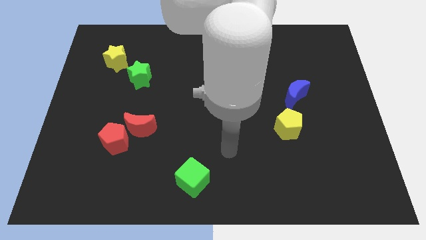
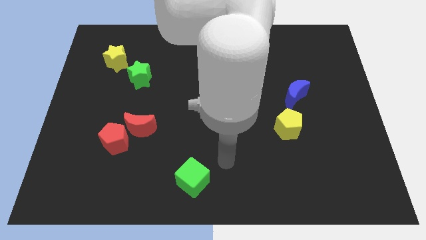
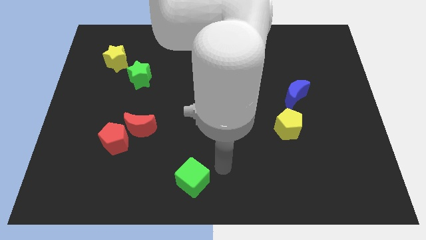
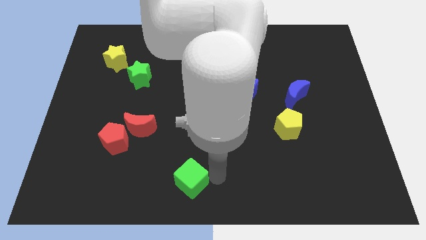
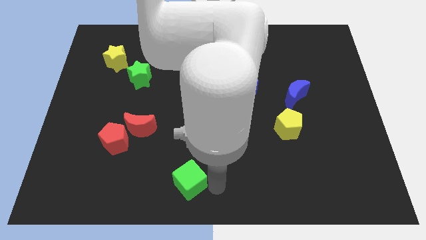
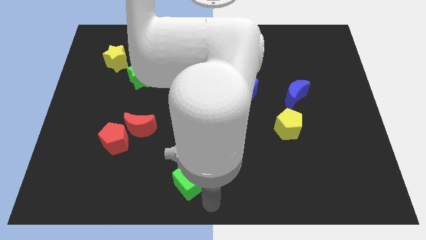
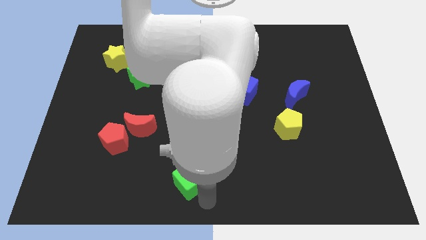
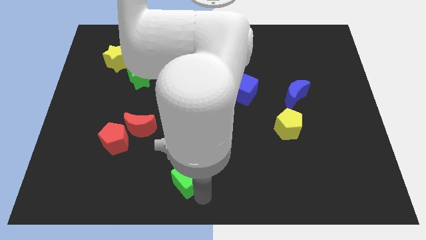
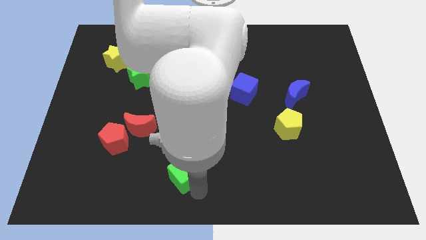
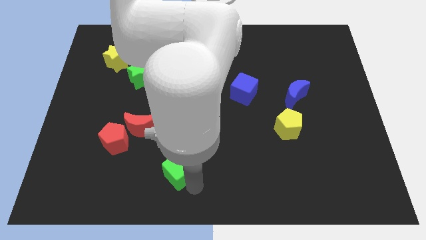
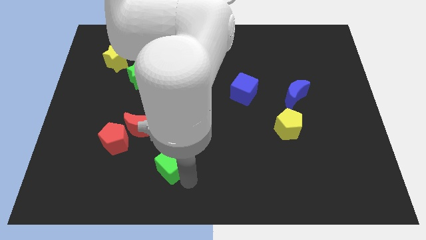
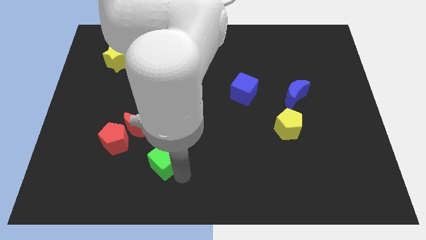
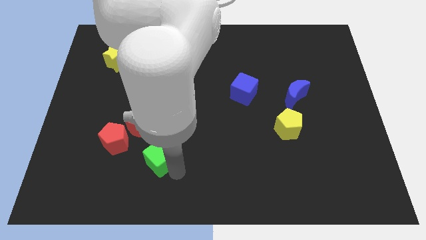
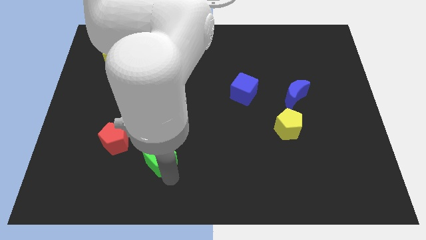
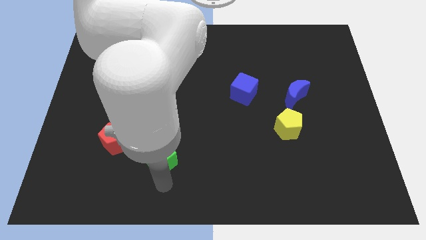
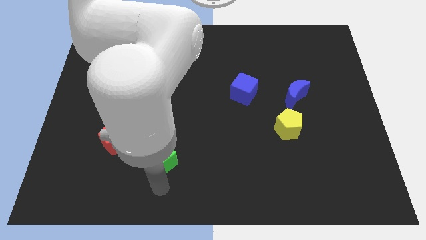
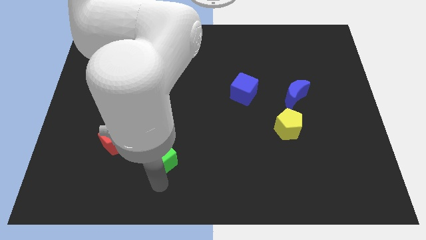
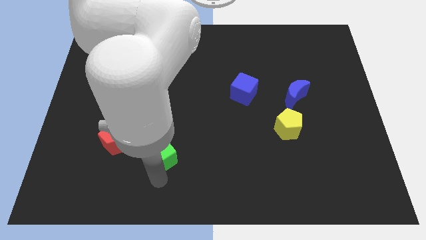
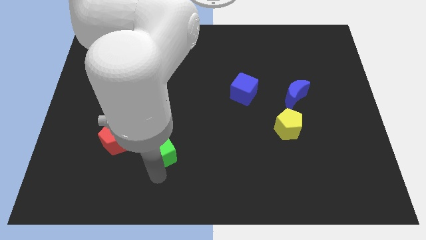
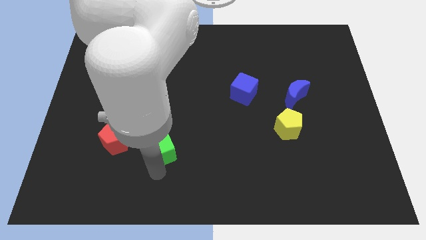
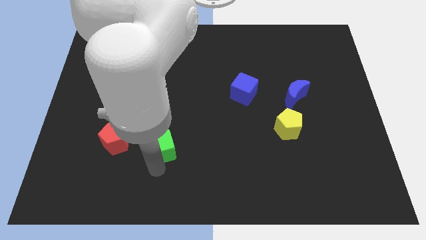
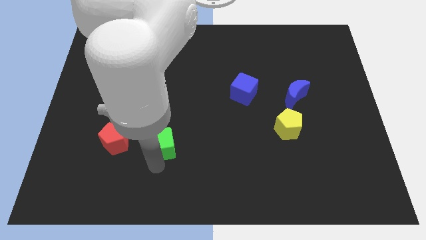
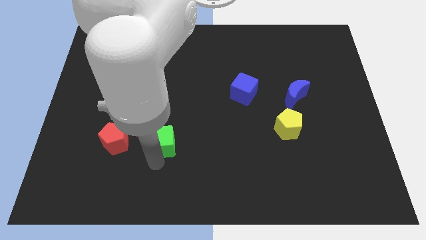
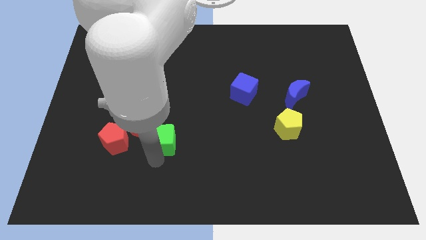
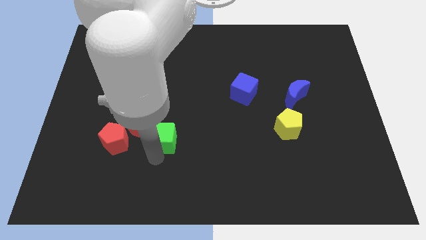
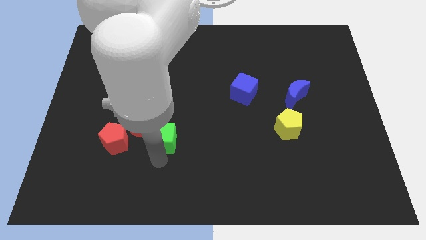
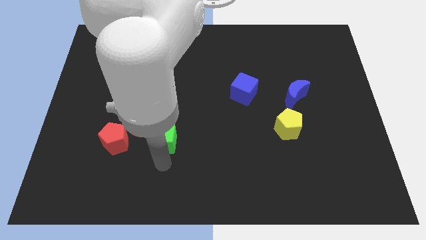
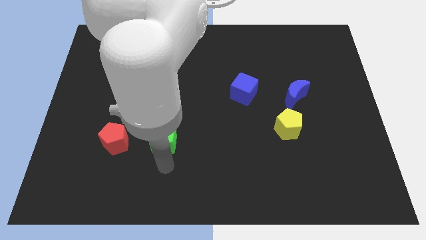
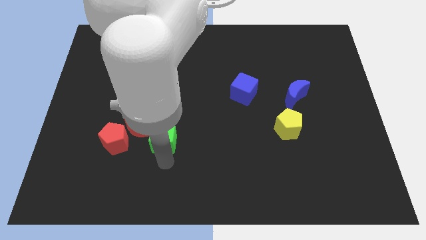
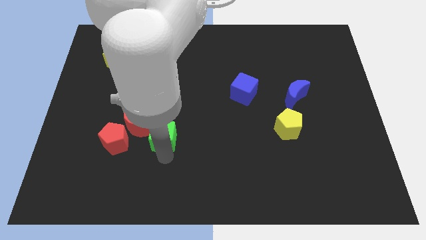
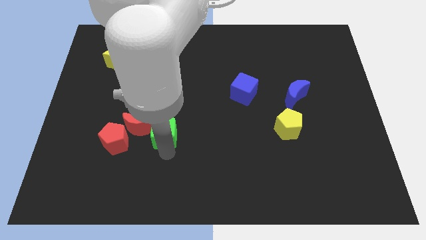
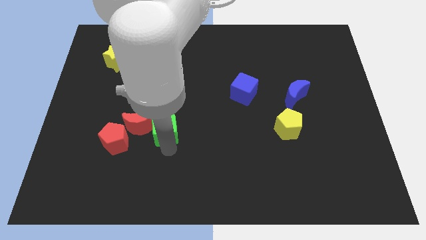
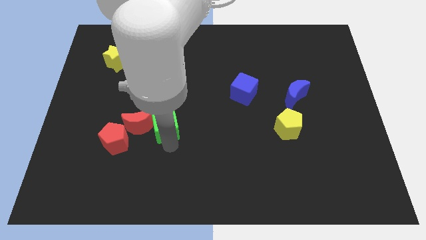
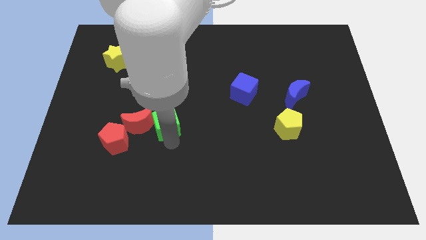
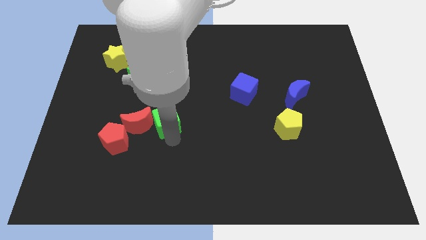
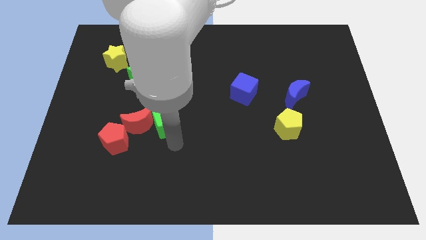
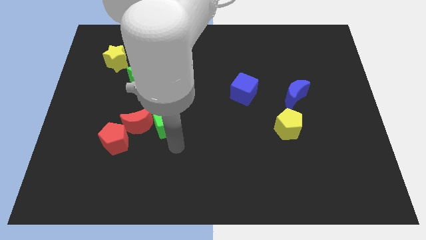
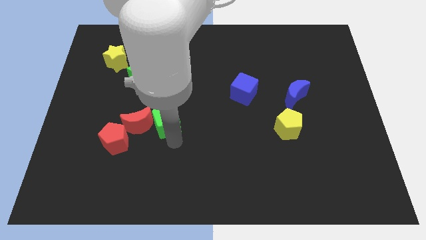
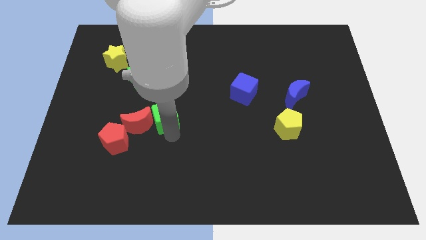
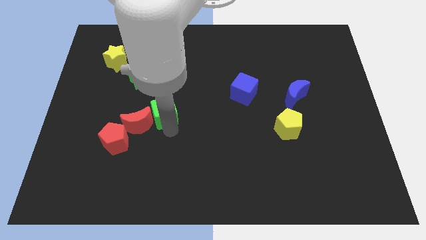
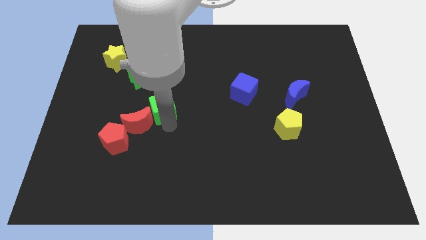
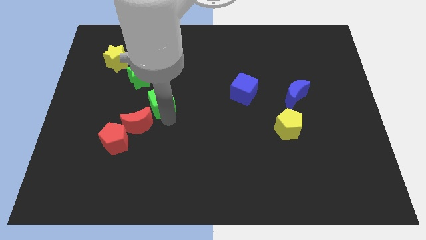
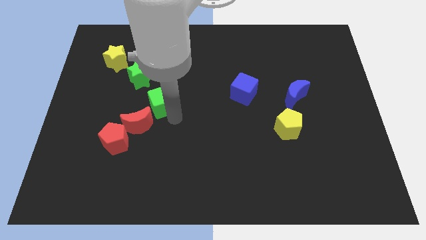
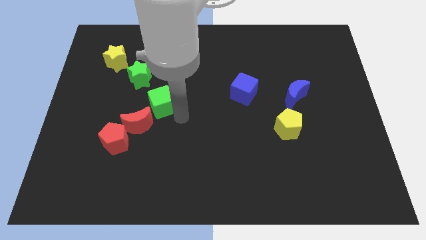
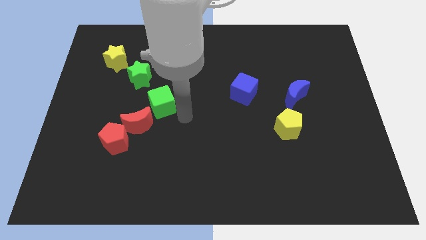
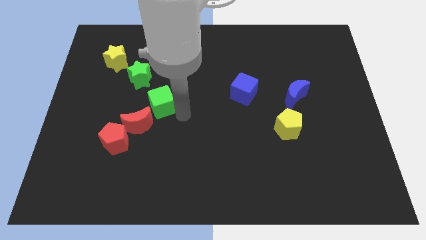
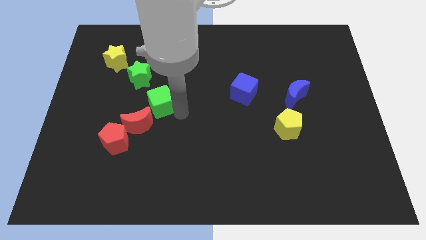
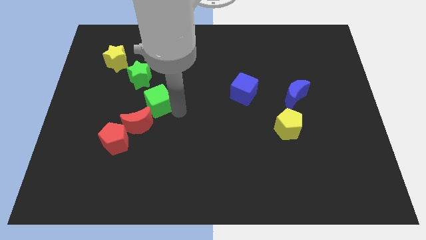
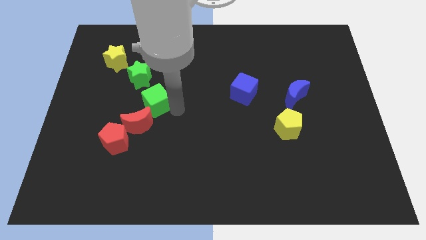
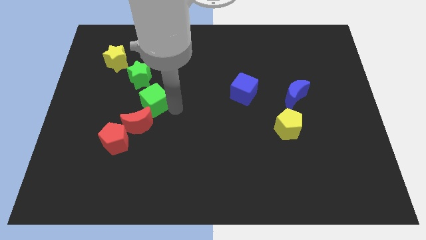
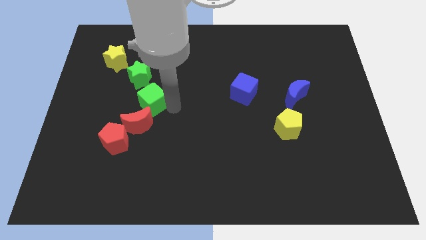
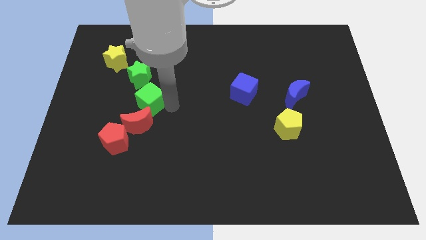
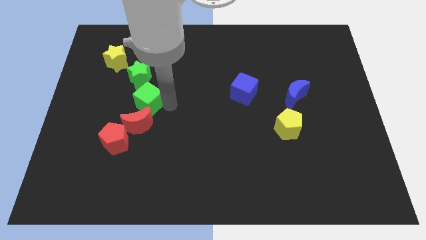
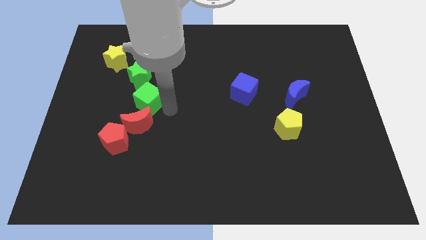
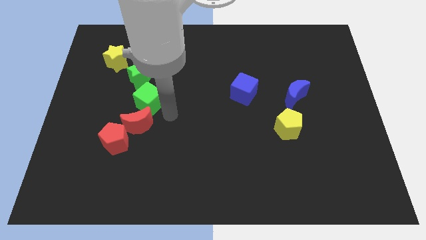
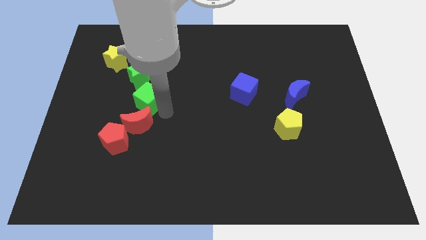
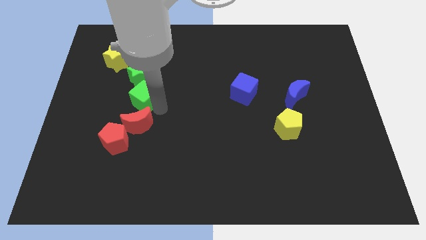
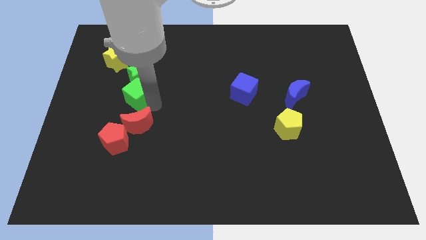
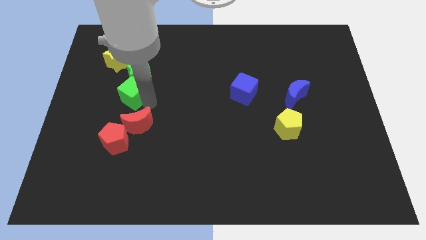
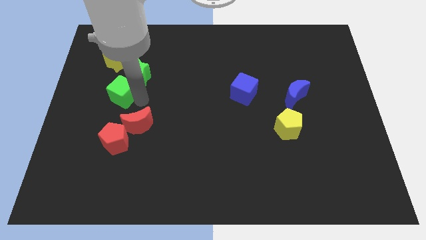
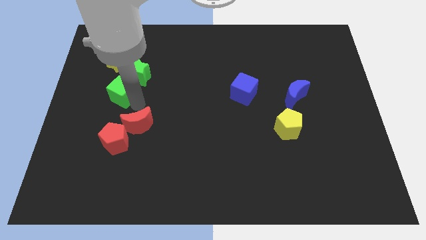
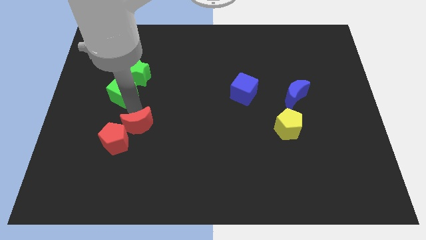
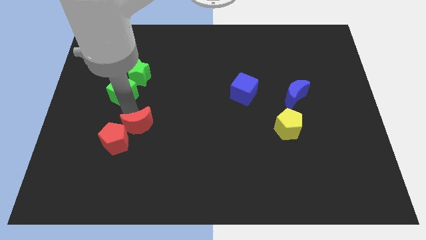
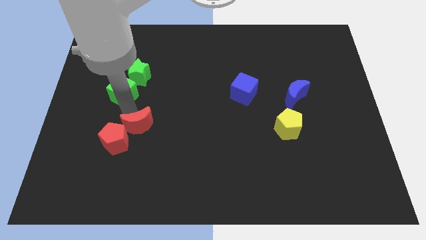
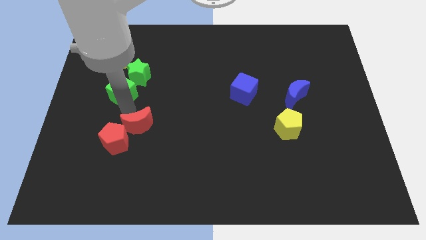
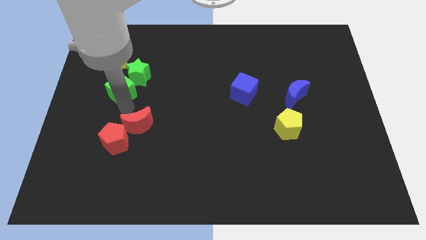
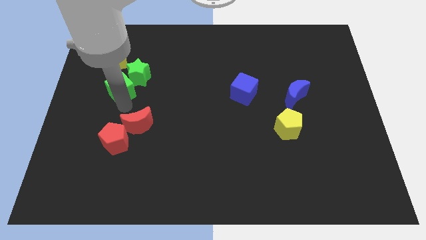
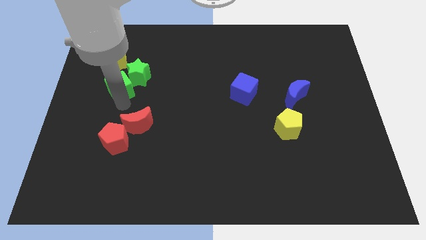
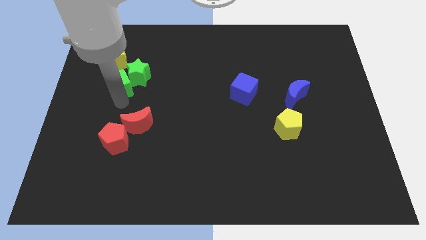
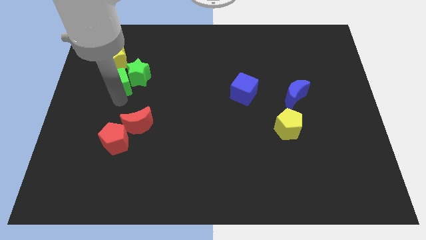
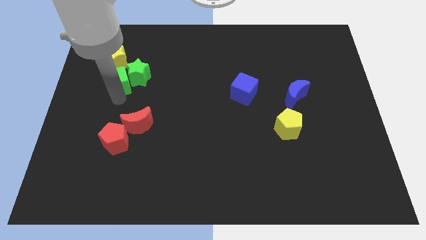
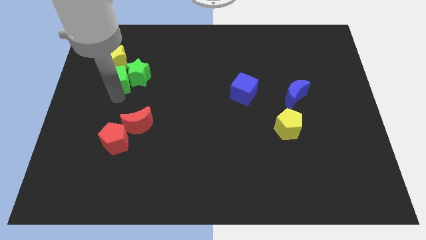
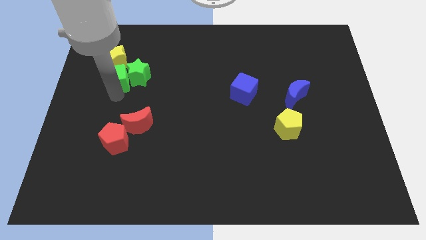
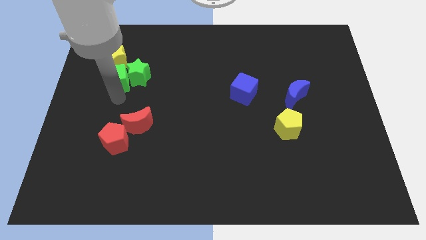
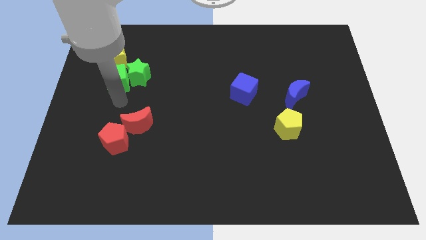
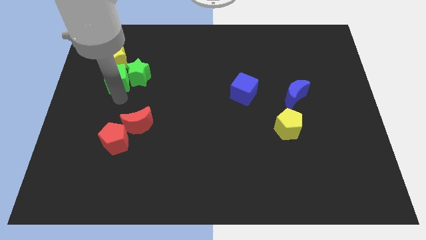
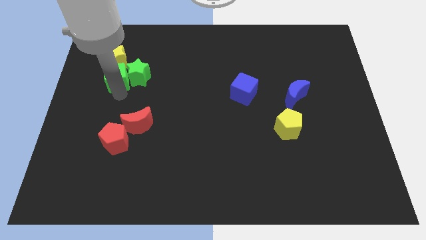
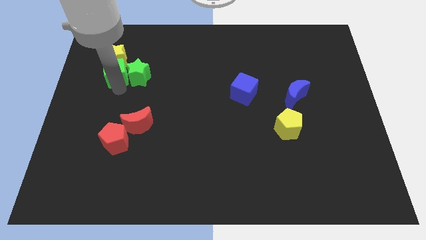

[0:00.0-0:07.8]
push the green cube to the yellow star

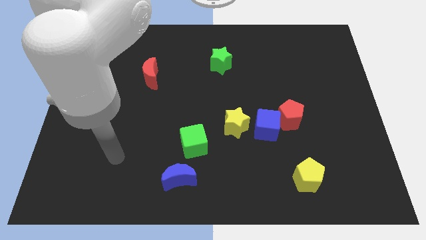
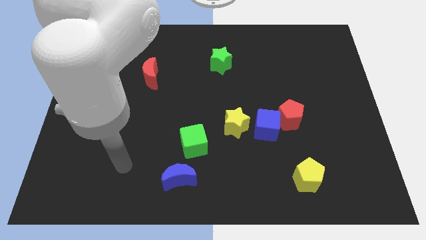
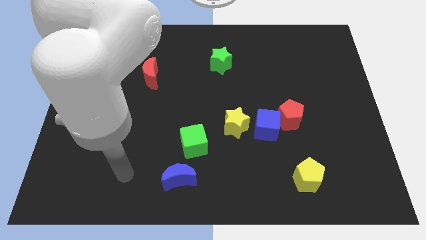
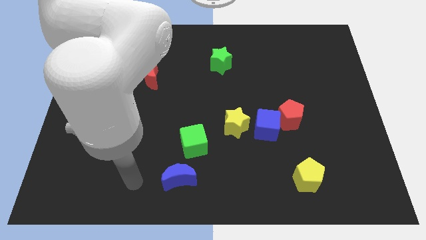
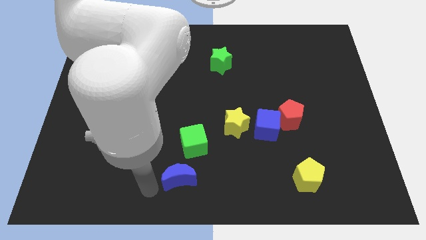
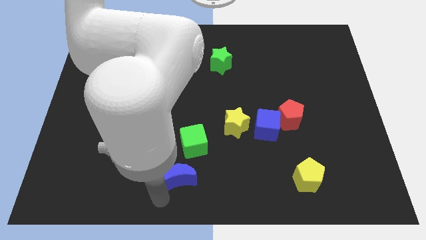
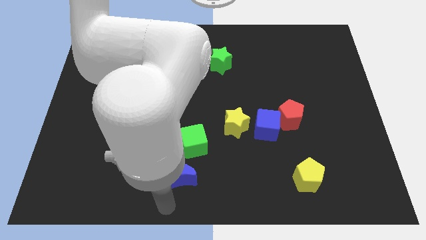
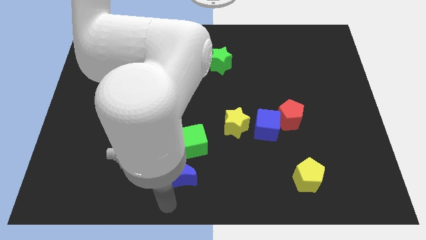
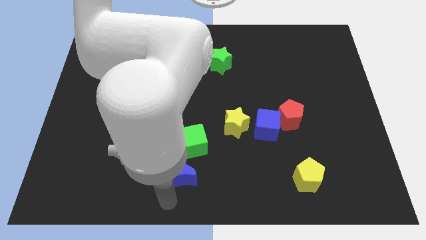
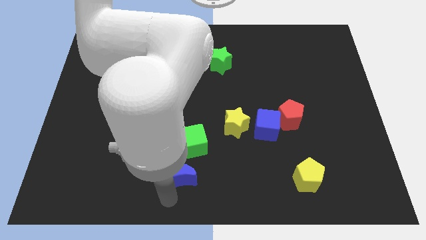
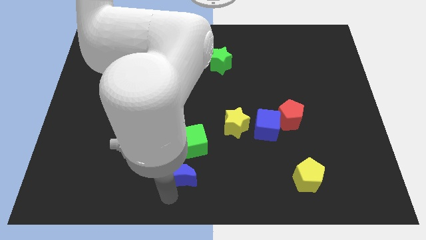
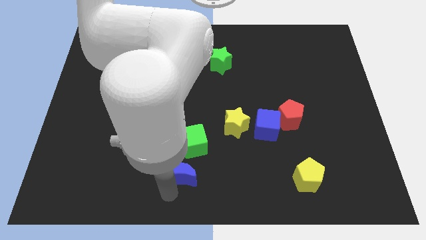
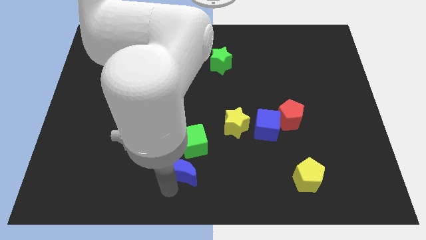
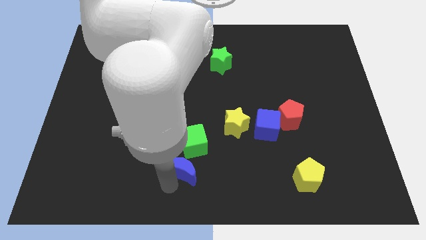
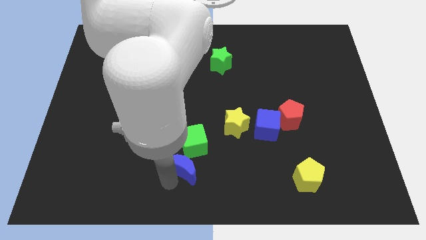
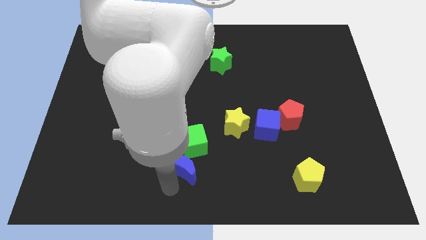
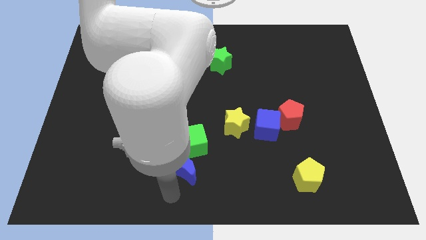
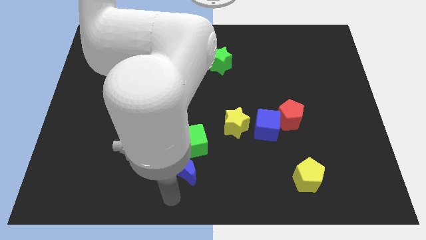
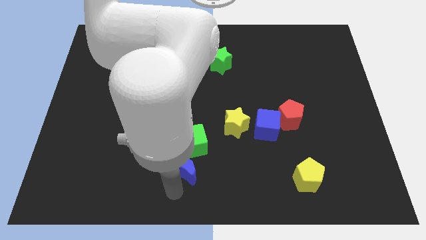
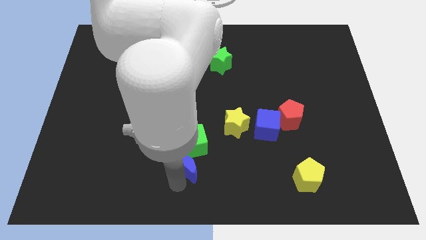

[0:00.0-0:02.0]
put the blue moon next to the green cube
